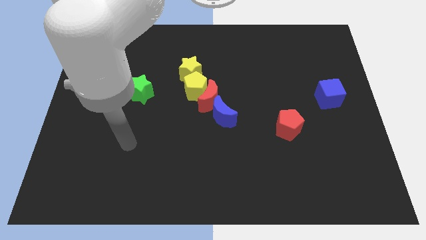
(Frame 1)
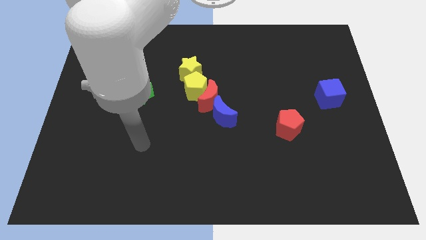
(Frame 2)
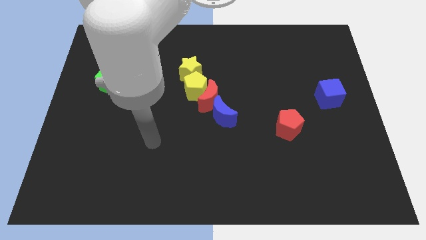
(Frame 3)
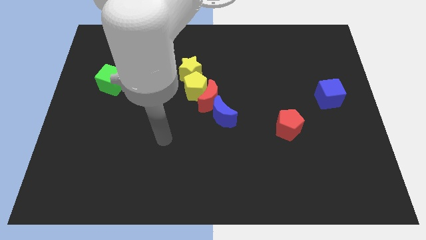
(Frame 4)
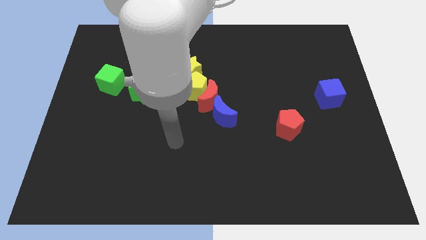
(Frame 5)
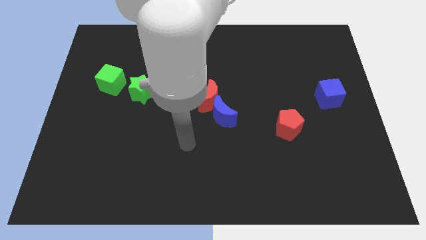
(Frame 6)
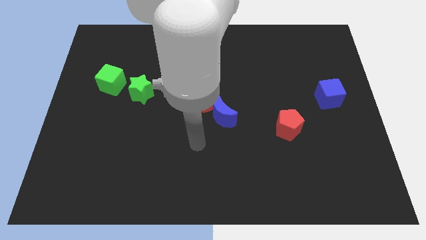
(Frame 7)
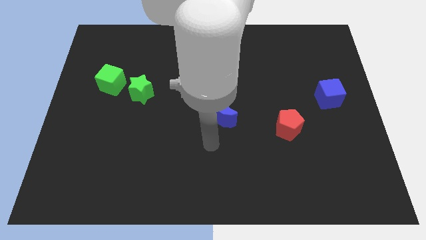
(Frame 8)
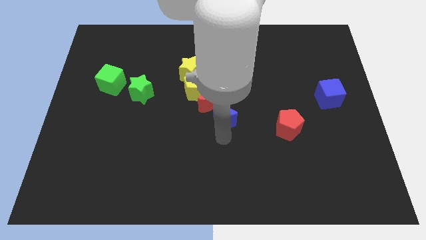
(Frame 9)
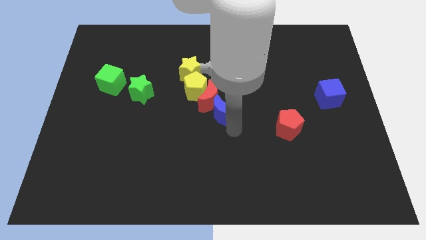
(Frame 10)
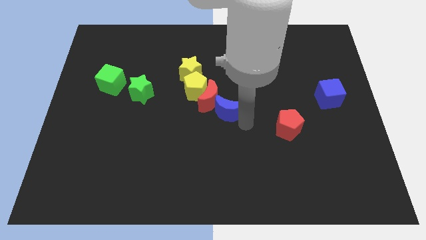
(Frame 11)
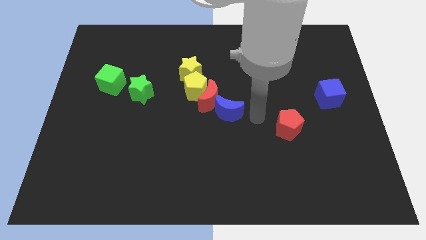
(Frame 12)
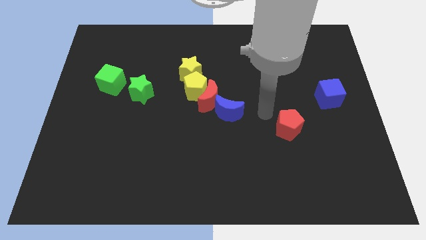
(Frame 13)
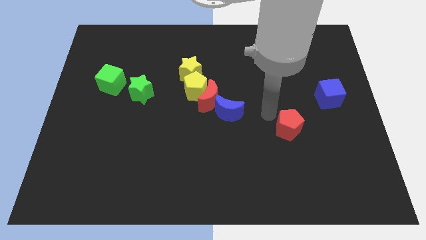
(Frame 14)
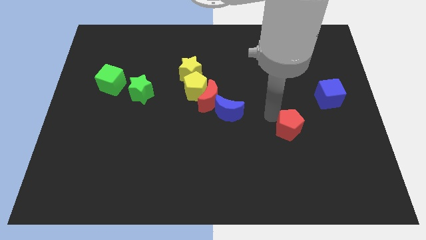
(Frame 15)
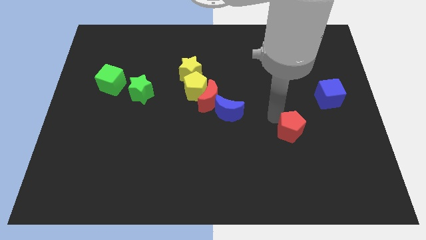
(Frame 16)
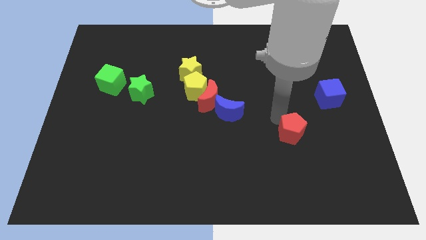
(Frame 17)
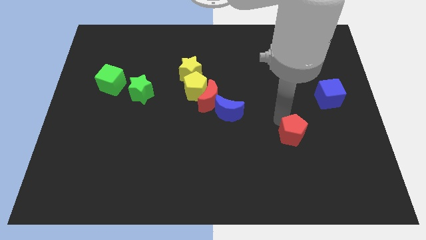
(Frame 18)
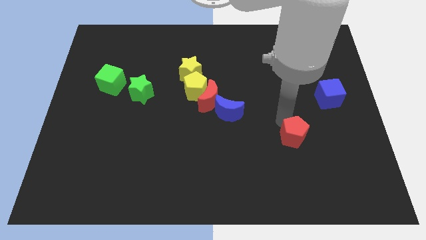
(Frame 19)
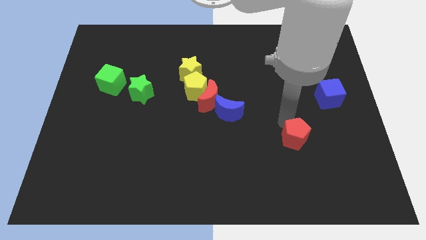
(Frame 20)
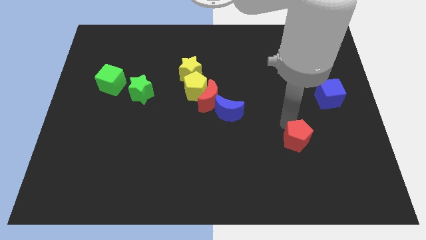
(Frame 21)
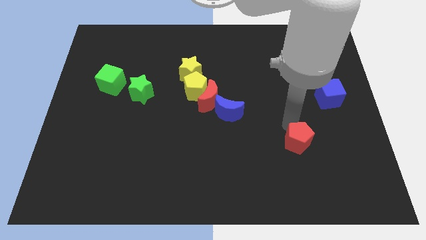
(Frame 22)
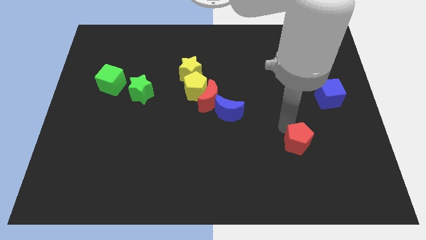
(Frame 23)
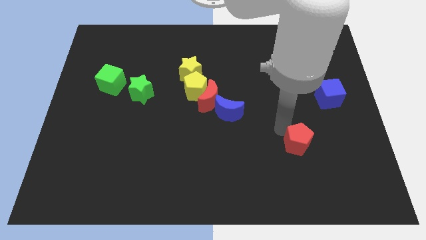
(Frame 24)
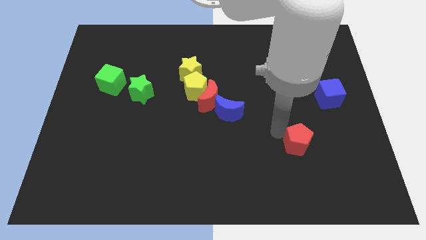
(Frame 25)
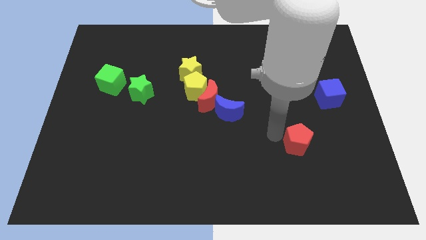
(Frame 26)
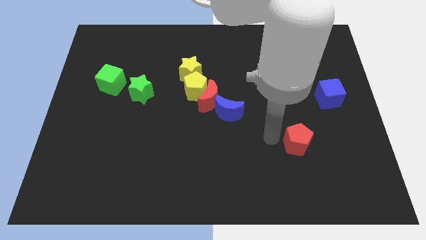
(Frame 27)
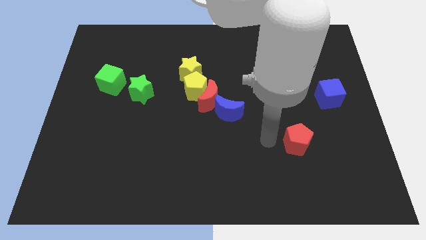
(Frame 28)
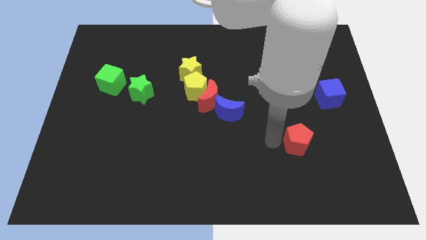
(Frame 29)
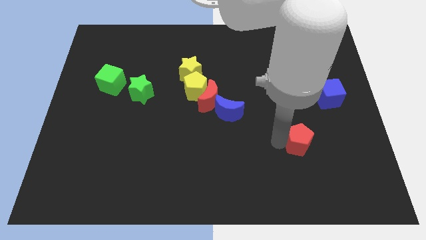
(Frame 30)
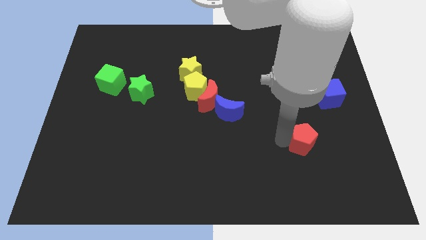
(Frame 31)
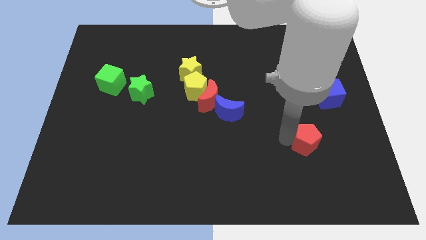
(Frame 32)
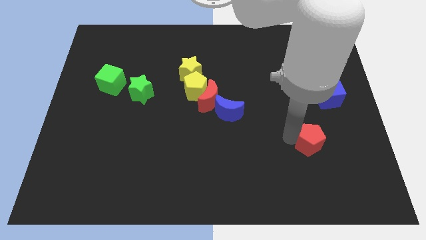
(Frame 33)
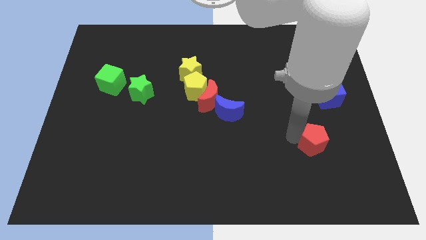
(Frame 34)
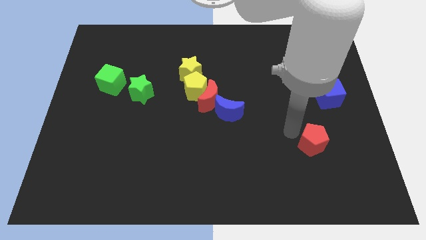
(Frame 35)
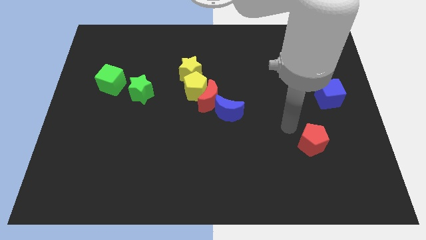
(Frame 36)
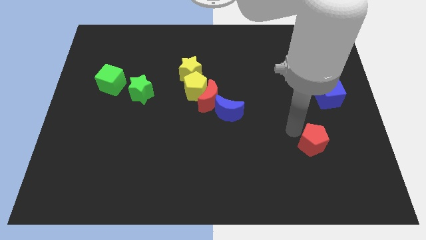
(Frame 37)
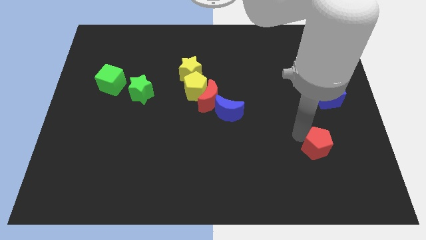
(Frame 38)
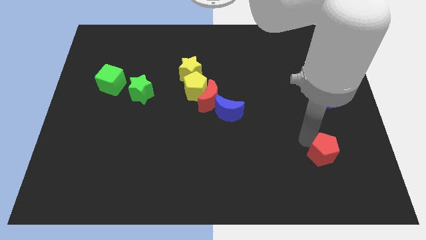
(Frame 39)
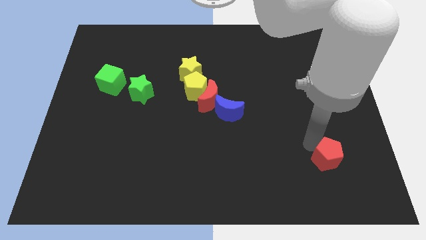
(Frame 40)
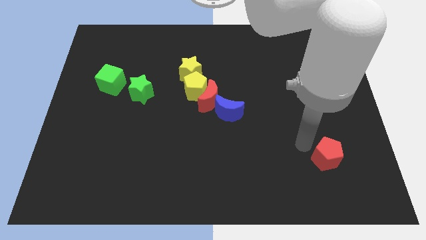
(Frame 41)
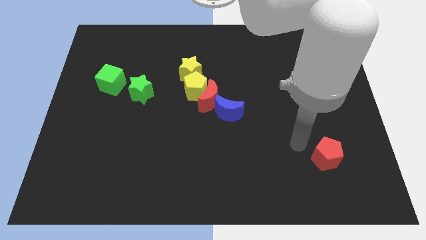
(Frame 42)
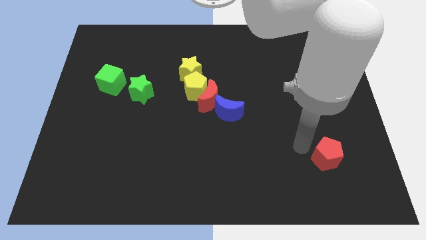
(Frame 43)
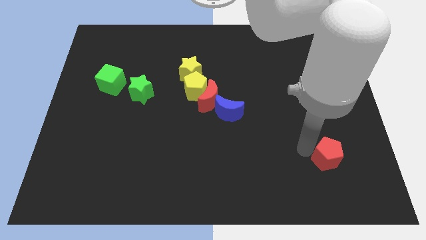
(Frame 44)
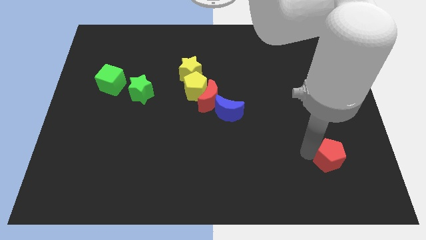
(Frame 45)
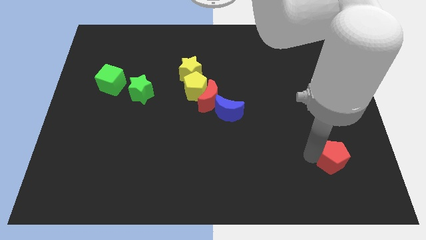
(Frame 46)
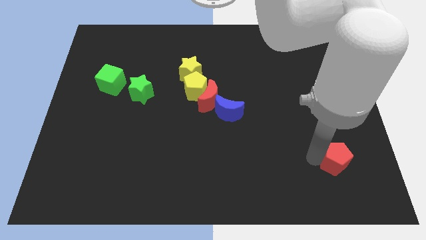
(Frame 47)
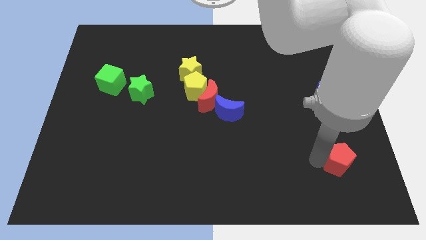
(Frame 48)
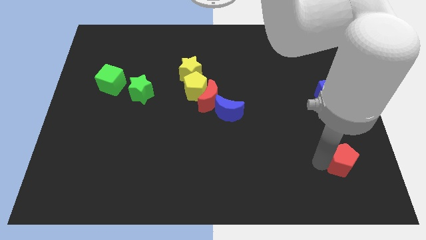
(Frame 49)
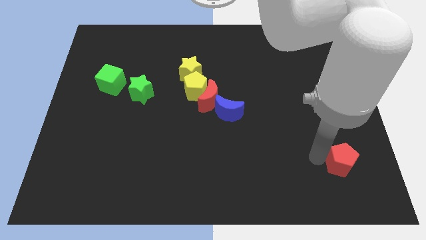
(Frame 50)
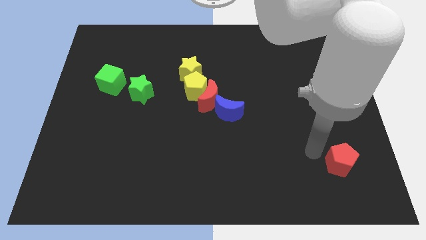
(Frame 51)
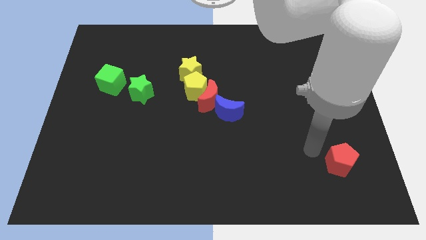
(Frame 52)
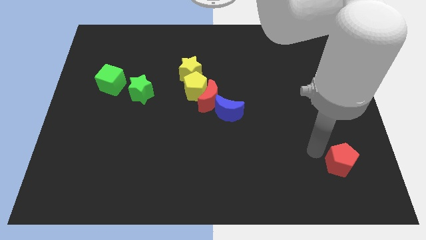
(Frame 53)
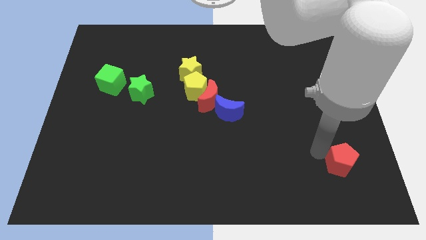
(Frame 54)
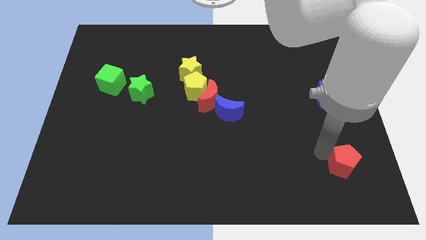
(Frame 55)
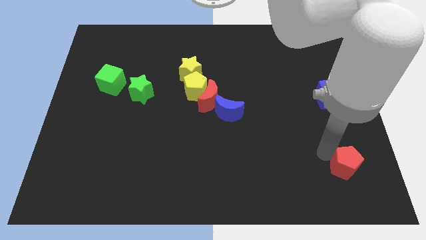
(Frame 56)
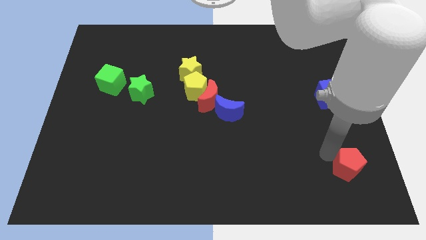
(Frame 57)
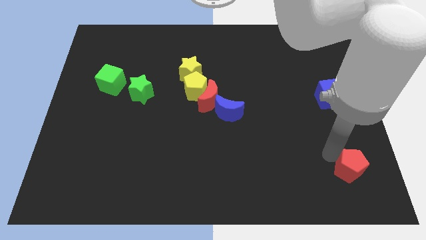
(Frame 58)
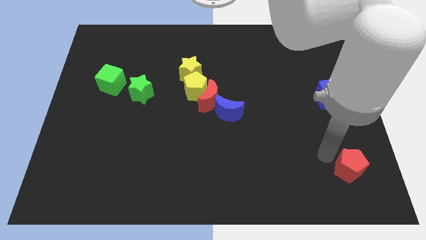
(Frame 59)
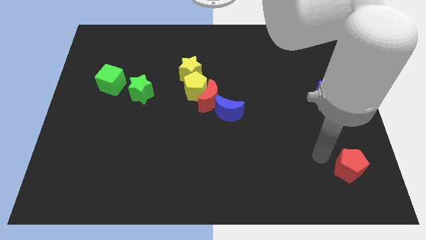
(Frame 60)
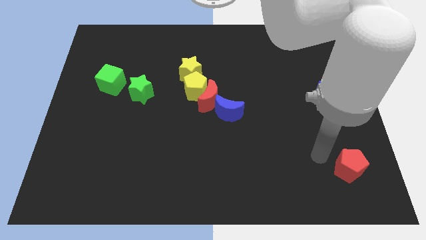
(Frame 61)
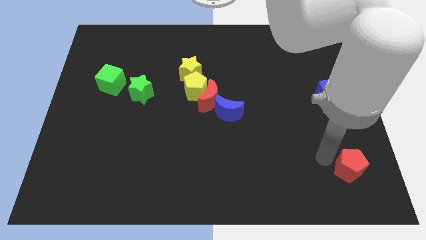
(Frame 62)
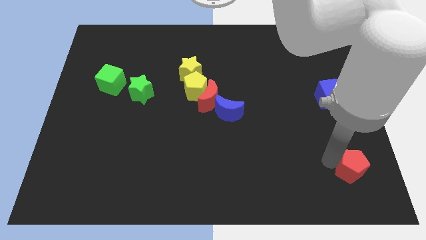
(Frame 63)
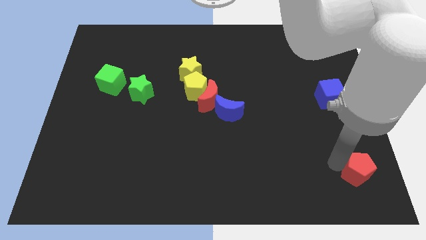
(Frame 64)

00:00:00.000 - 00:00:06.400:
put the red pentagon to the lower right corner
